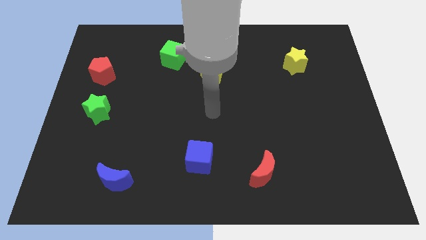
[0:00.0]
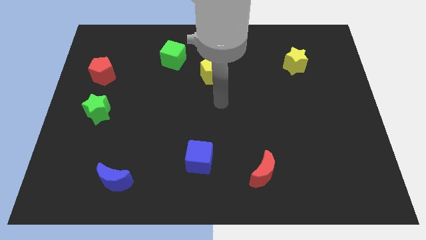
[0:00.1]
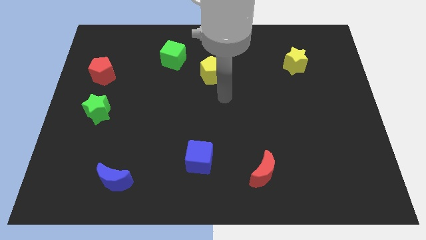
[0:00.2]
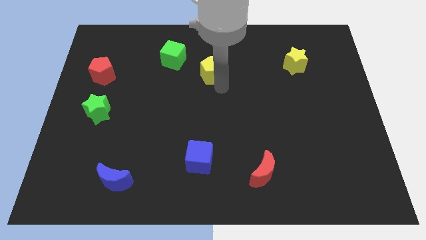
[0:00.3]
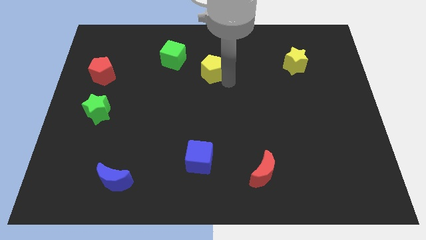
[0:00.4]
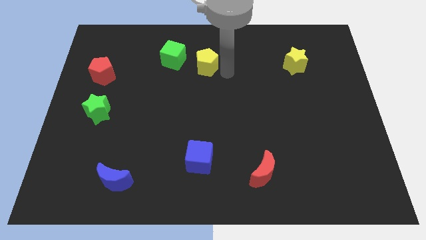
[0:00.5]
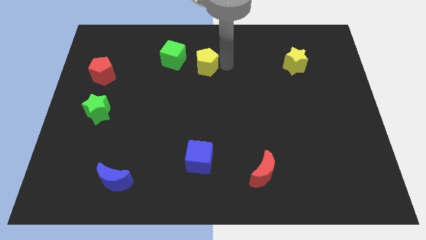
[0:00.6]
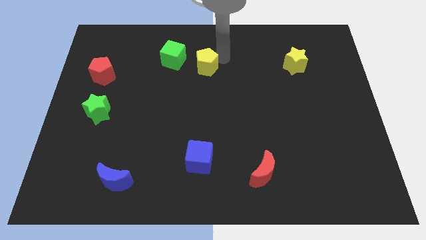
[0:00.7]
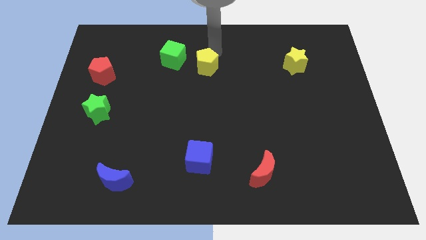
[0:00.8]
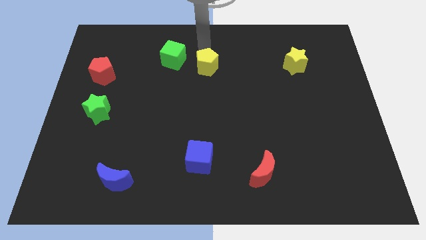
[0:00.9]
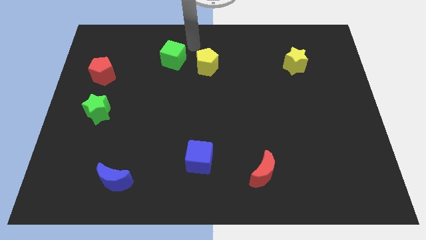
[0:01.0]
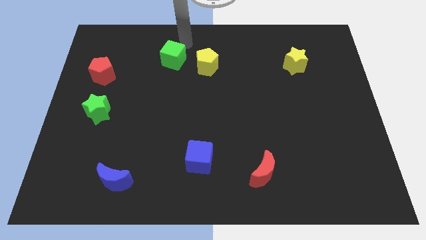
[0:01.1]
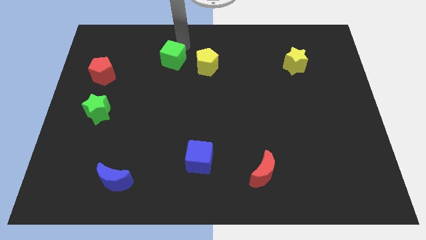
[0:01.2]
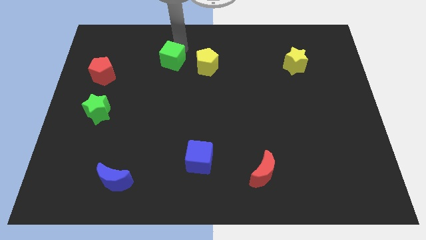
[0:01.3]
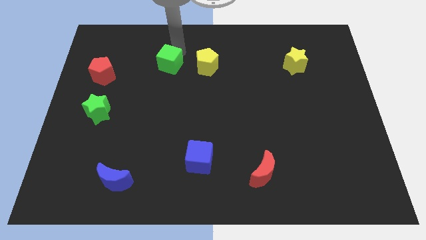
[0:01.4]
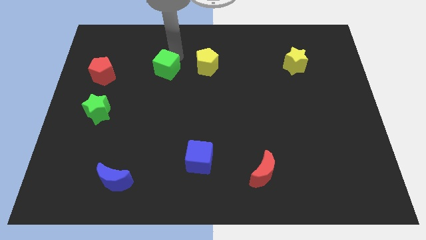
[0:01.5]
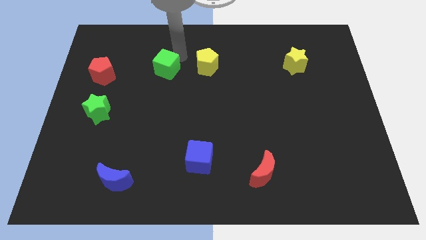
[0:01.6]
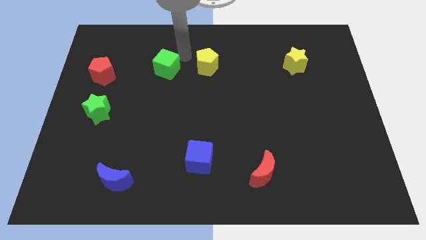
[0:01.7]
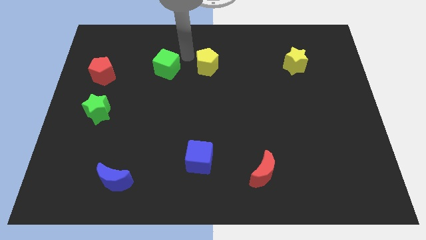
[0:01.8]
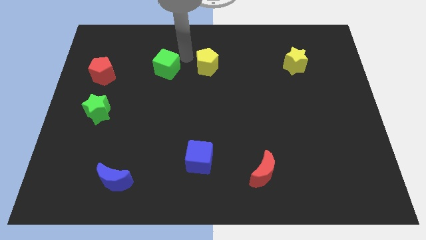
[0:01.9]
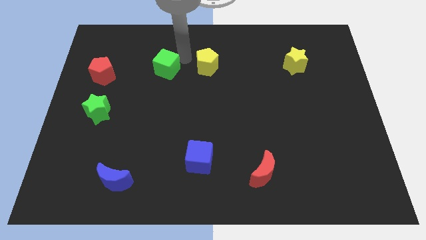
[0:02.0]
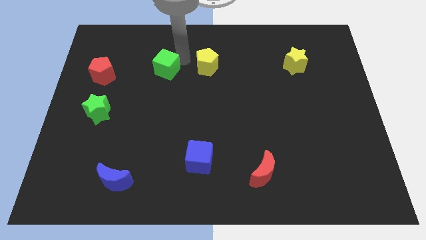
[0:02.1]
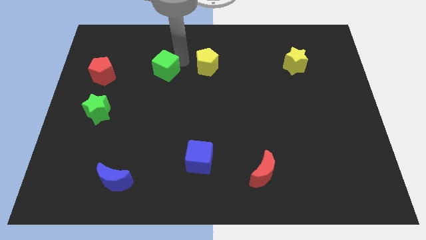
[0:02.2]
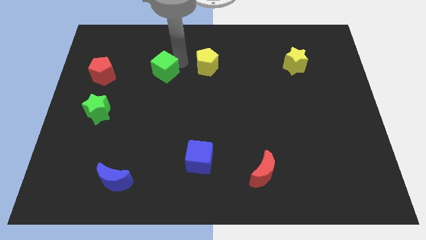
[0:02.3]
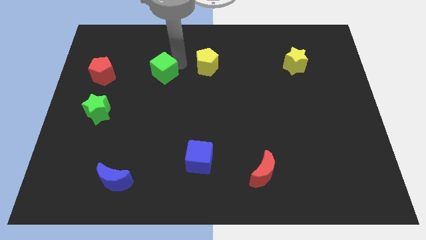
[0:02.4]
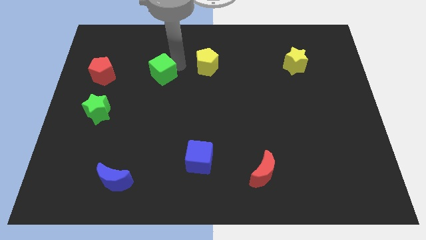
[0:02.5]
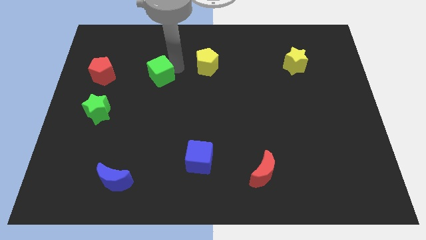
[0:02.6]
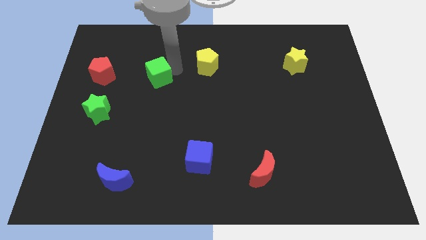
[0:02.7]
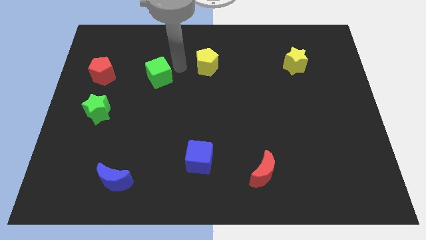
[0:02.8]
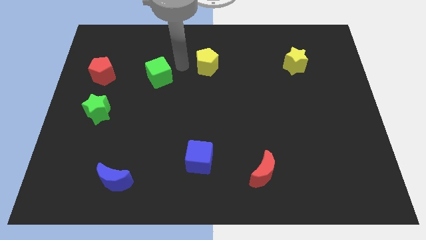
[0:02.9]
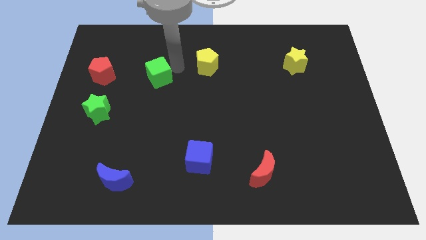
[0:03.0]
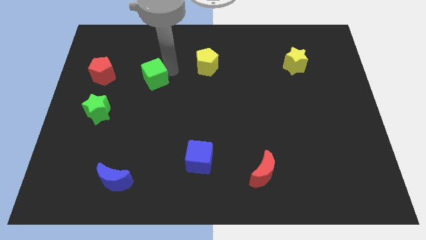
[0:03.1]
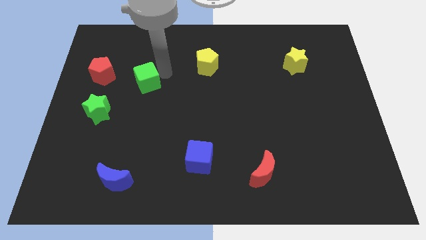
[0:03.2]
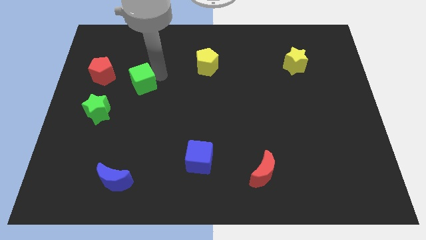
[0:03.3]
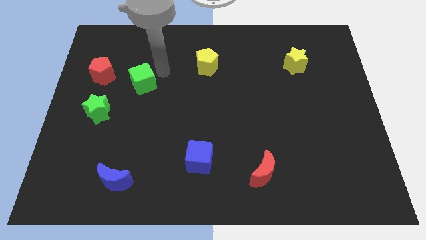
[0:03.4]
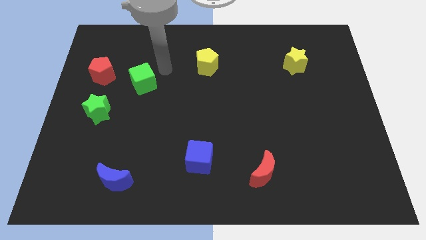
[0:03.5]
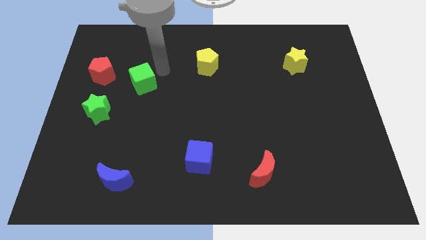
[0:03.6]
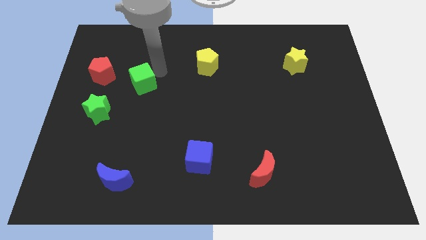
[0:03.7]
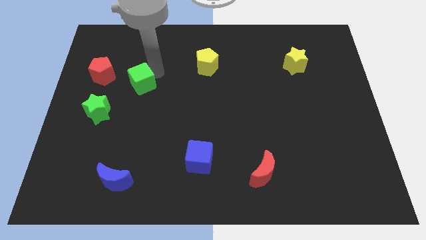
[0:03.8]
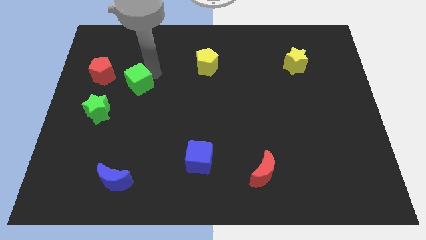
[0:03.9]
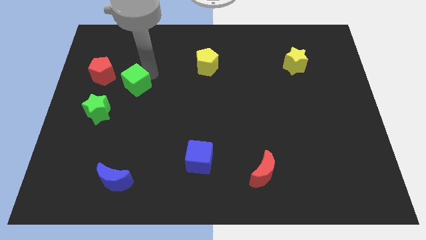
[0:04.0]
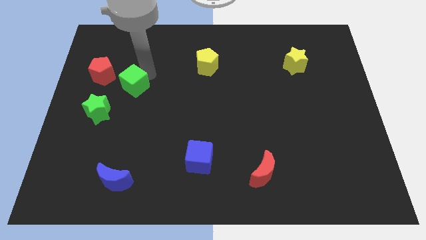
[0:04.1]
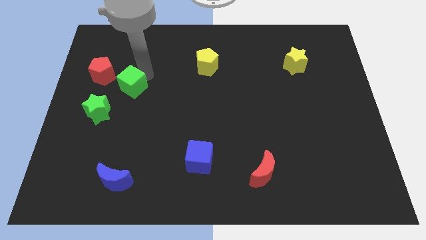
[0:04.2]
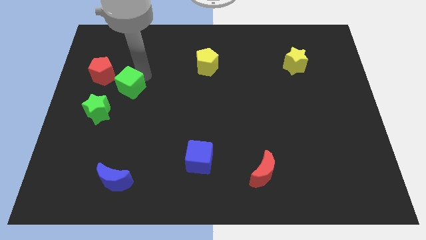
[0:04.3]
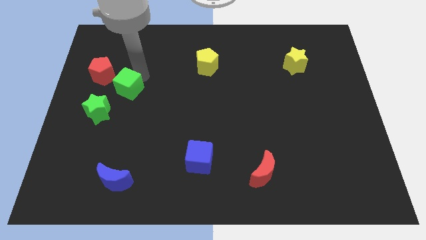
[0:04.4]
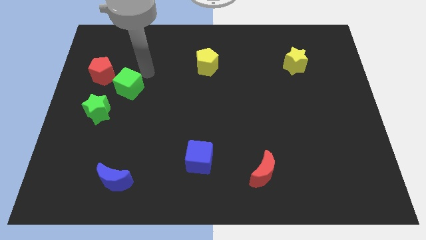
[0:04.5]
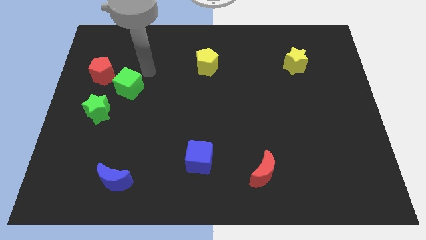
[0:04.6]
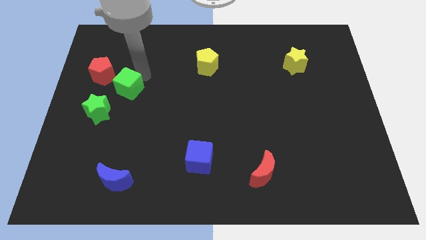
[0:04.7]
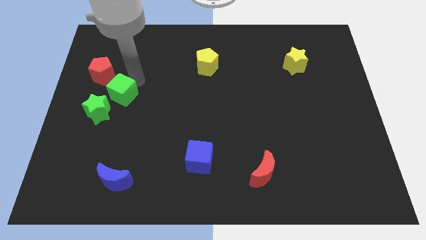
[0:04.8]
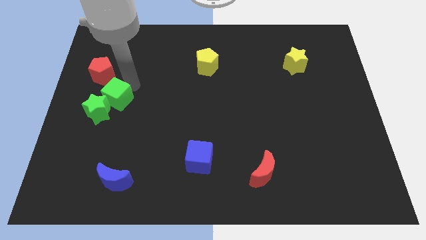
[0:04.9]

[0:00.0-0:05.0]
put the green cube close to the green star

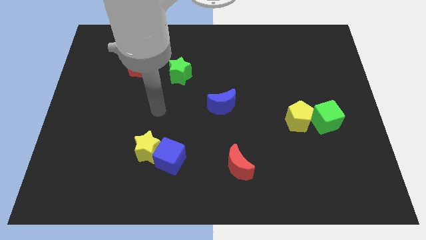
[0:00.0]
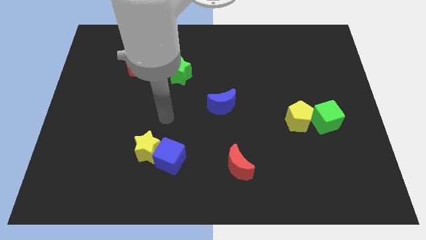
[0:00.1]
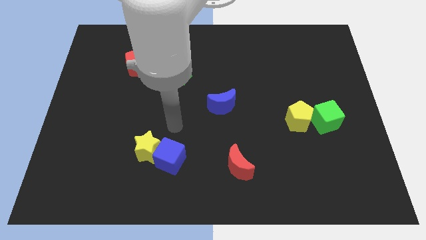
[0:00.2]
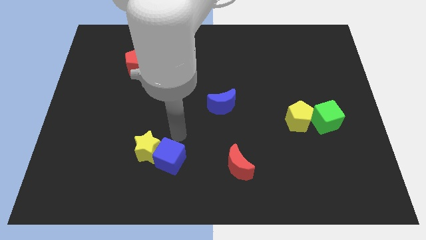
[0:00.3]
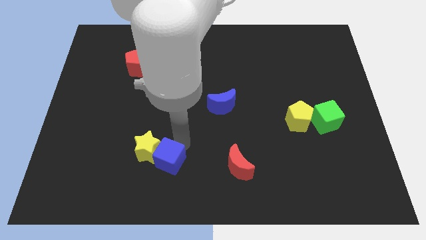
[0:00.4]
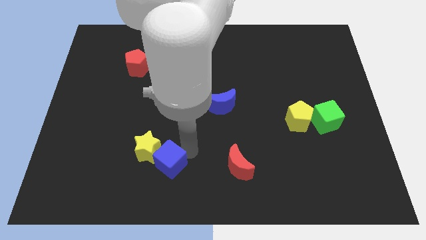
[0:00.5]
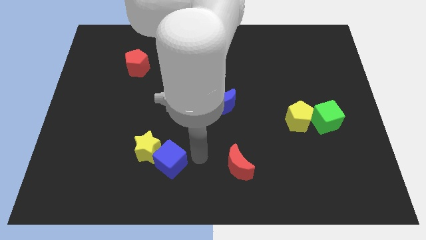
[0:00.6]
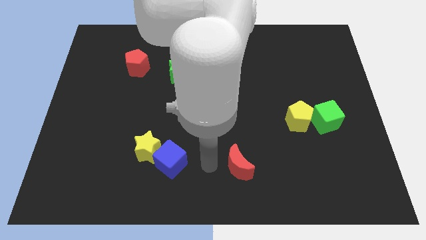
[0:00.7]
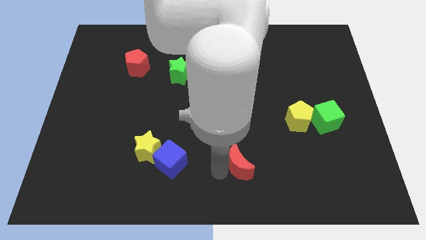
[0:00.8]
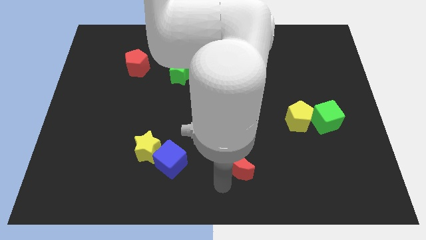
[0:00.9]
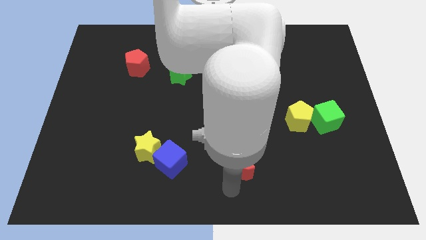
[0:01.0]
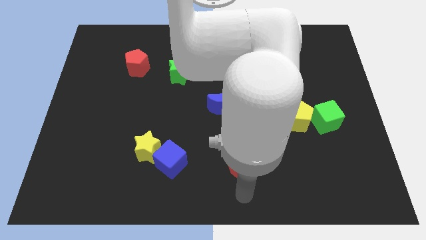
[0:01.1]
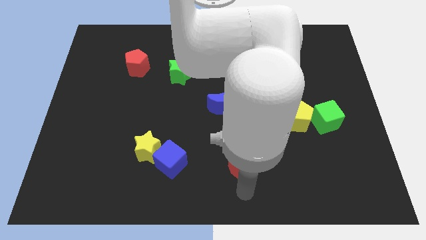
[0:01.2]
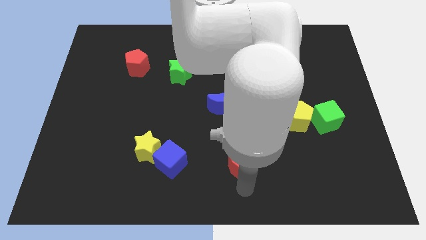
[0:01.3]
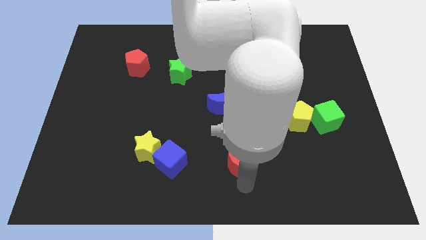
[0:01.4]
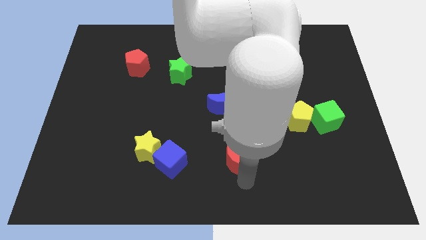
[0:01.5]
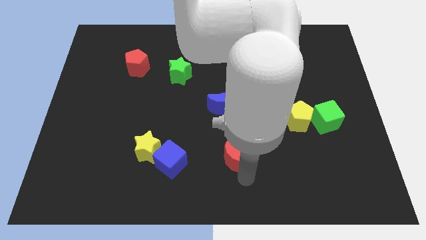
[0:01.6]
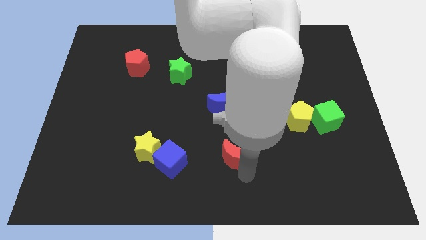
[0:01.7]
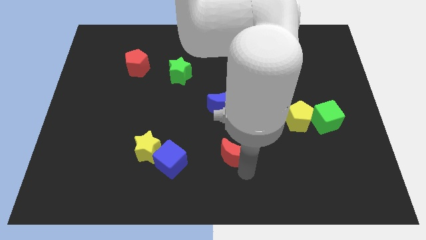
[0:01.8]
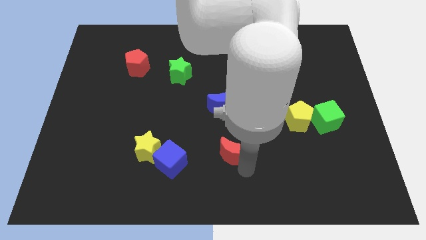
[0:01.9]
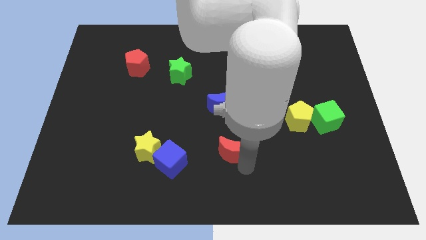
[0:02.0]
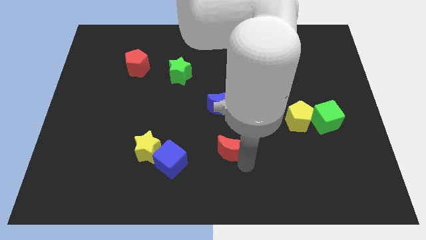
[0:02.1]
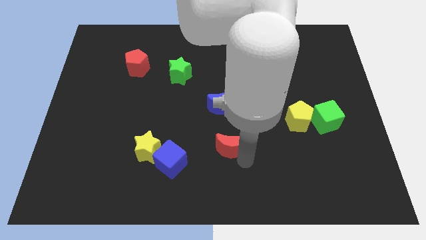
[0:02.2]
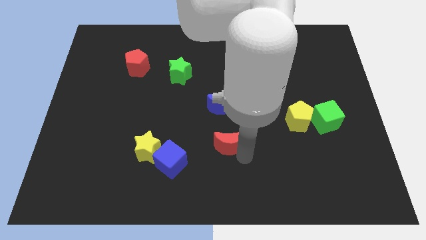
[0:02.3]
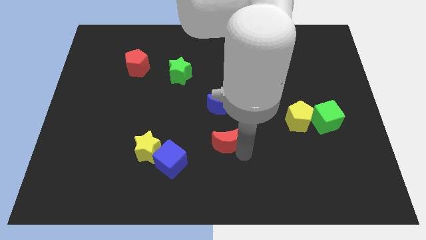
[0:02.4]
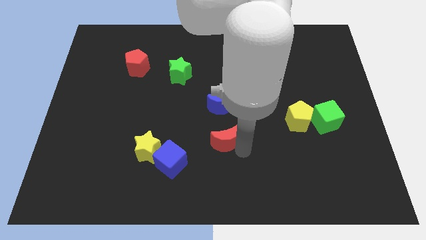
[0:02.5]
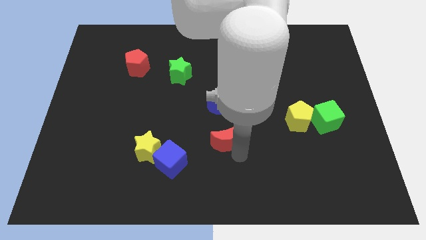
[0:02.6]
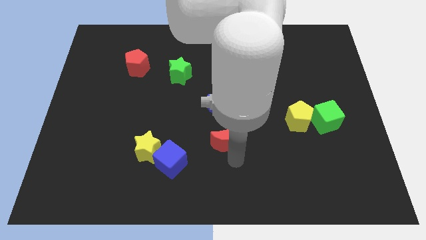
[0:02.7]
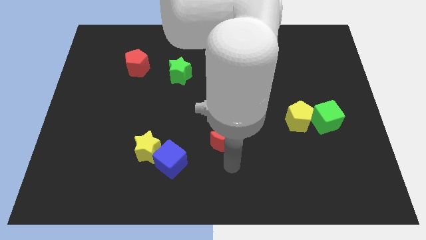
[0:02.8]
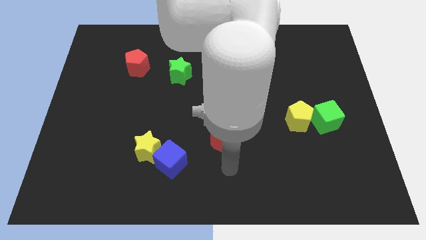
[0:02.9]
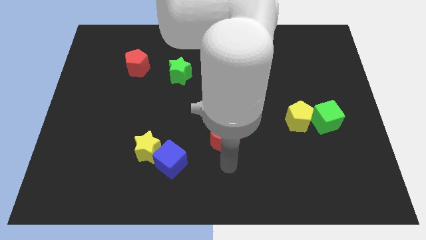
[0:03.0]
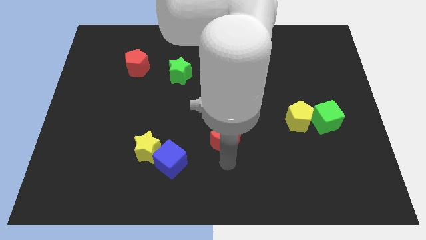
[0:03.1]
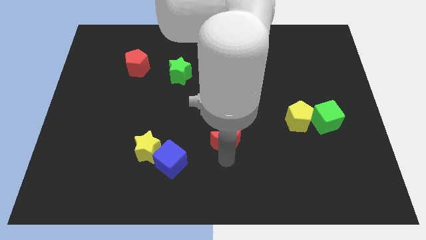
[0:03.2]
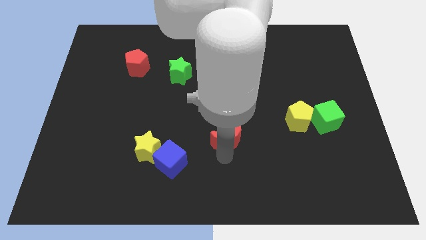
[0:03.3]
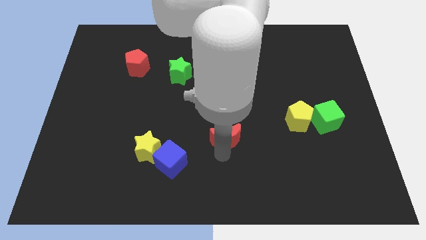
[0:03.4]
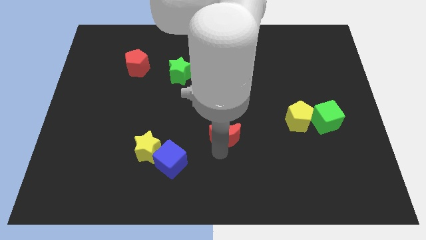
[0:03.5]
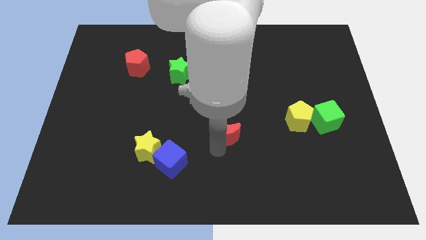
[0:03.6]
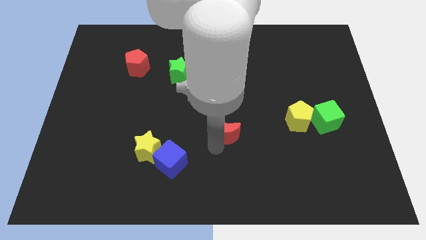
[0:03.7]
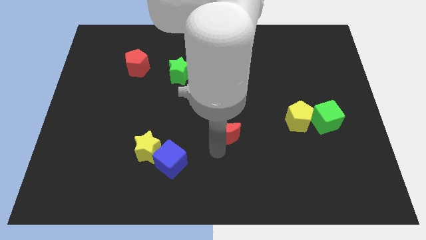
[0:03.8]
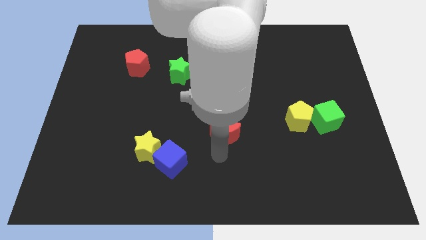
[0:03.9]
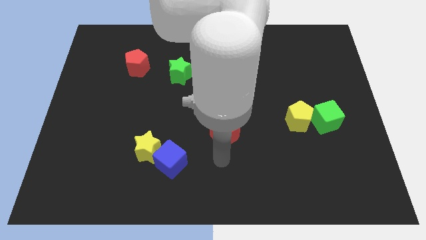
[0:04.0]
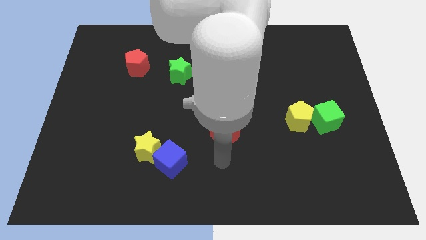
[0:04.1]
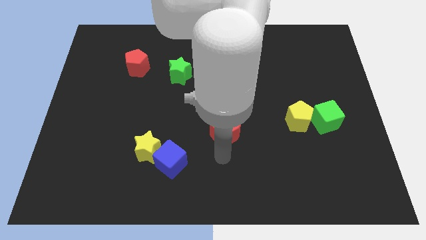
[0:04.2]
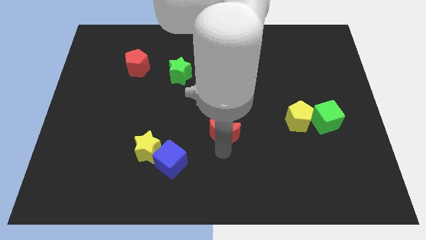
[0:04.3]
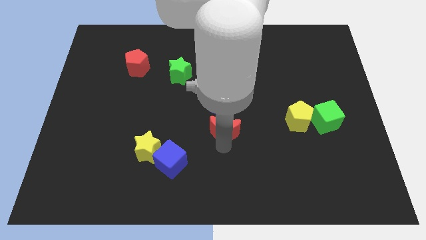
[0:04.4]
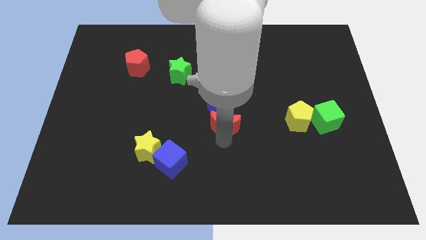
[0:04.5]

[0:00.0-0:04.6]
put the red moon next to the blue moon
